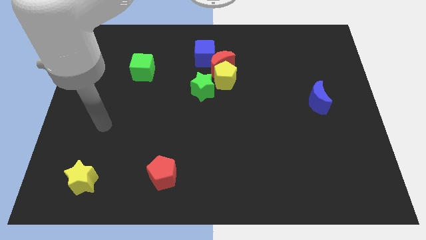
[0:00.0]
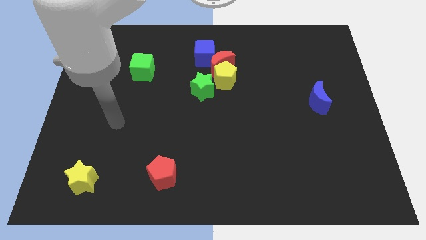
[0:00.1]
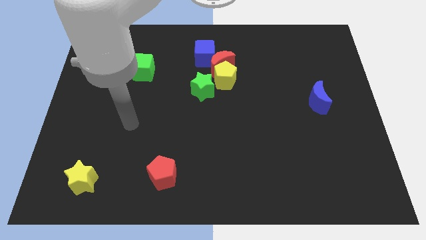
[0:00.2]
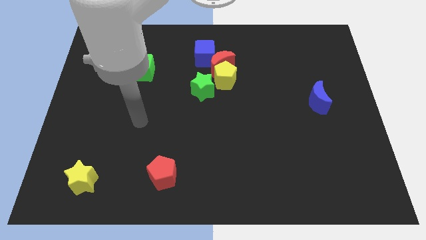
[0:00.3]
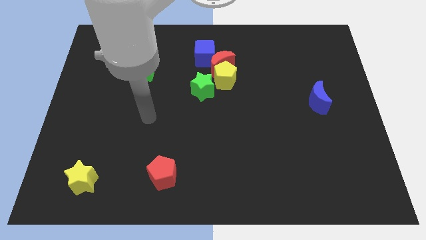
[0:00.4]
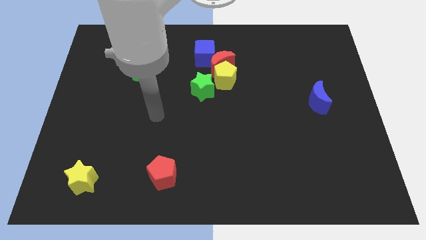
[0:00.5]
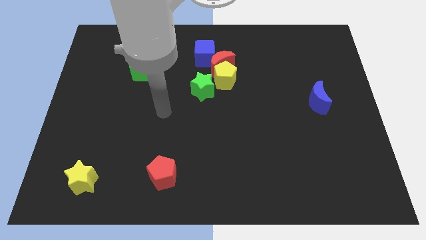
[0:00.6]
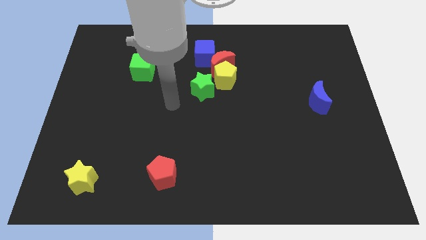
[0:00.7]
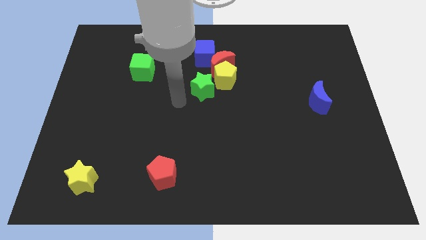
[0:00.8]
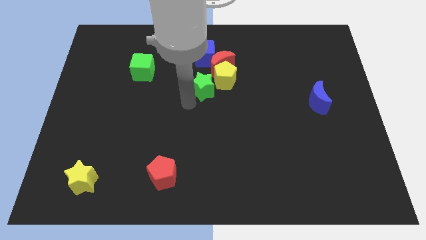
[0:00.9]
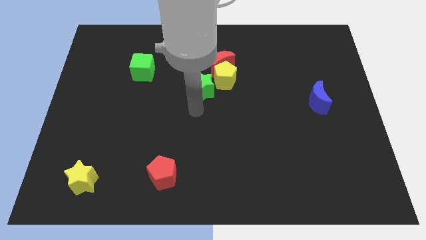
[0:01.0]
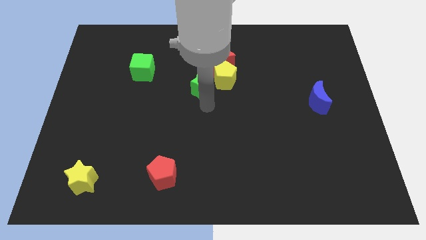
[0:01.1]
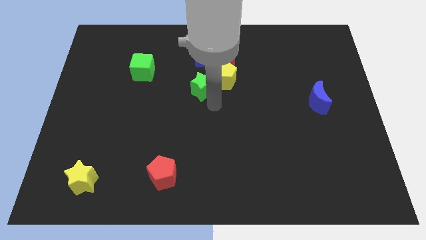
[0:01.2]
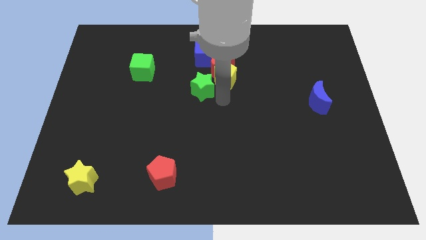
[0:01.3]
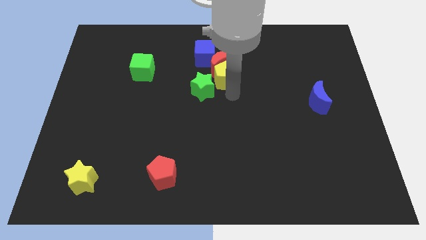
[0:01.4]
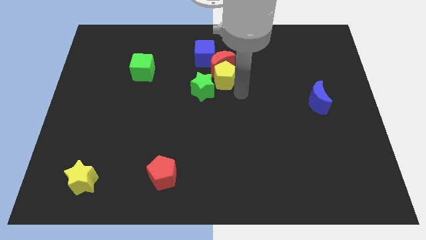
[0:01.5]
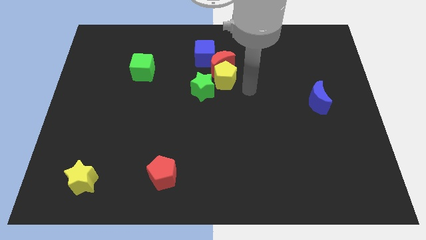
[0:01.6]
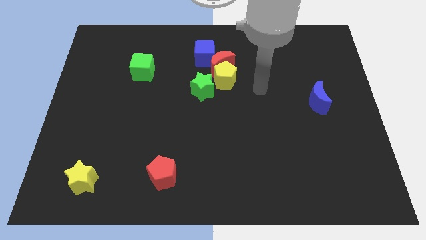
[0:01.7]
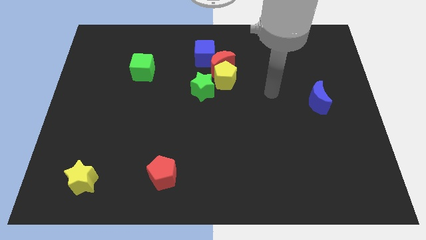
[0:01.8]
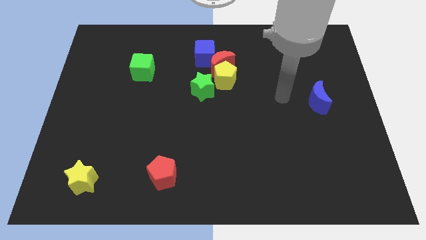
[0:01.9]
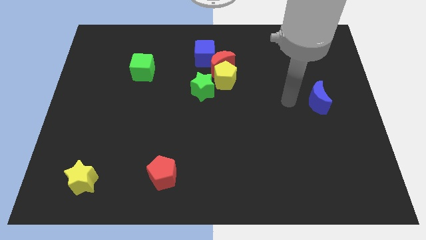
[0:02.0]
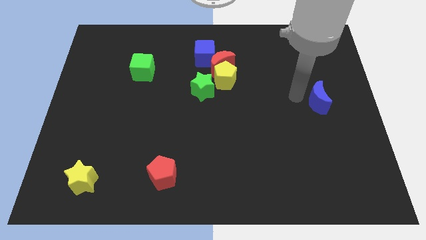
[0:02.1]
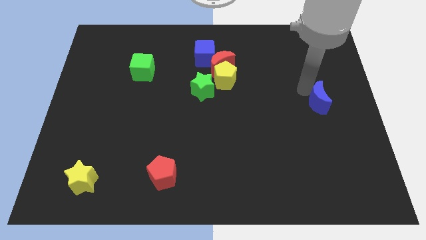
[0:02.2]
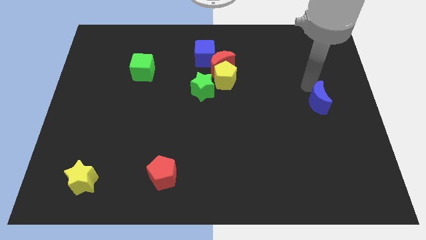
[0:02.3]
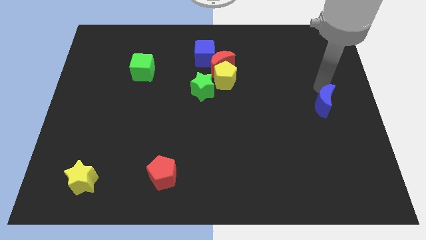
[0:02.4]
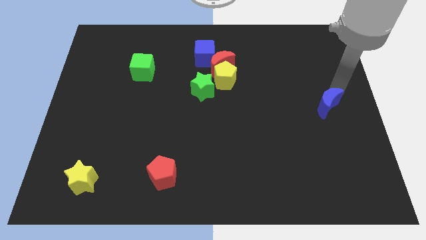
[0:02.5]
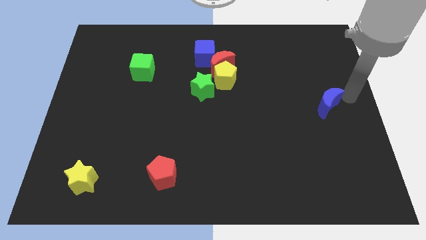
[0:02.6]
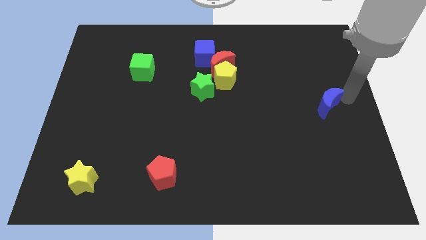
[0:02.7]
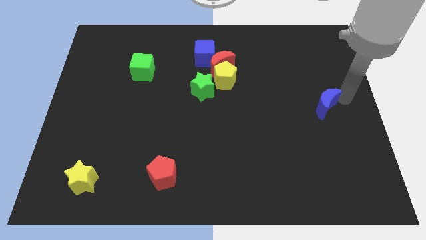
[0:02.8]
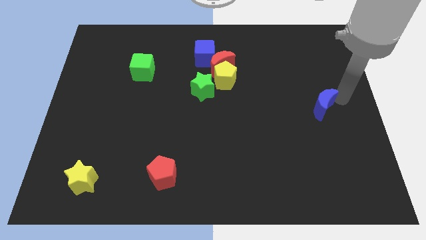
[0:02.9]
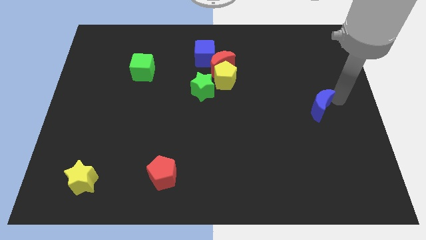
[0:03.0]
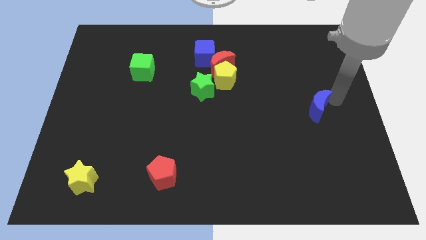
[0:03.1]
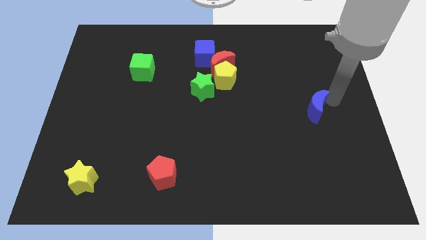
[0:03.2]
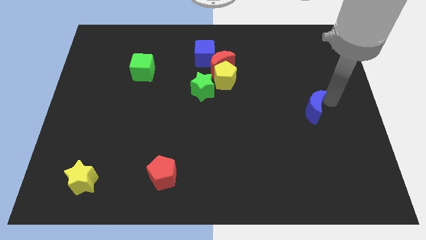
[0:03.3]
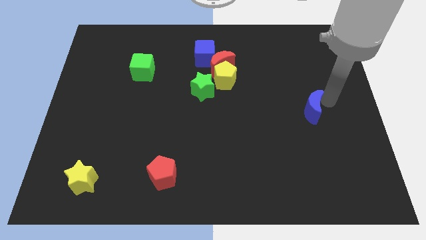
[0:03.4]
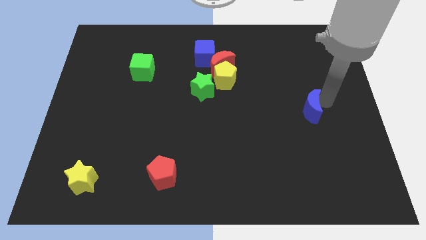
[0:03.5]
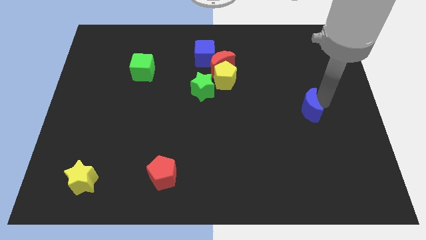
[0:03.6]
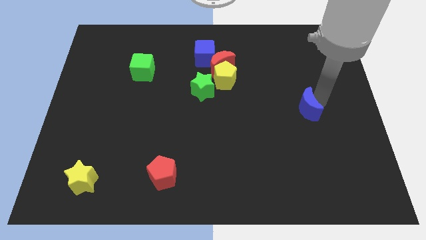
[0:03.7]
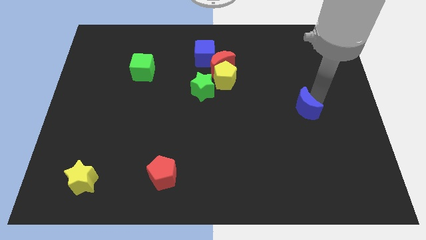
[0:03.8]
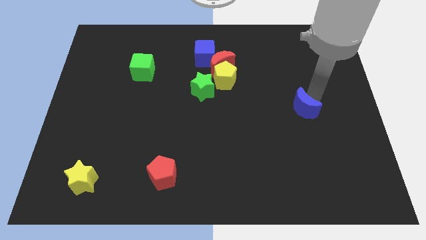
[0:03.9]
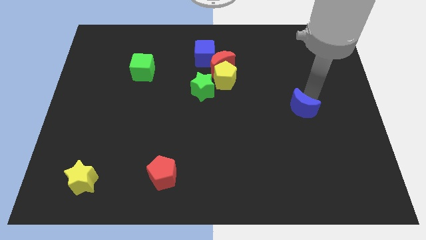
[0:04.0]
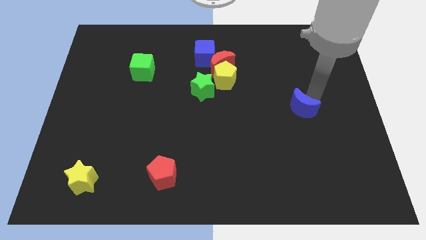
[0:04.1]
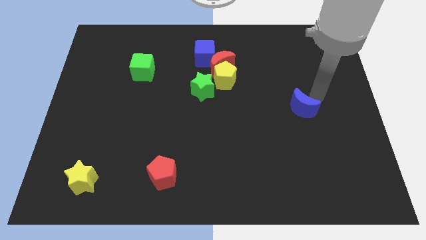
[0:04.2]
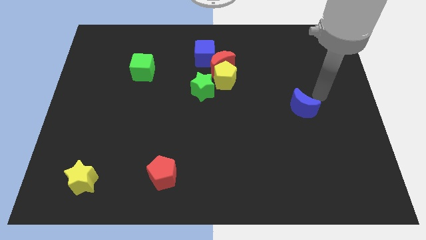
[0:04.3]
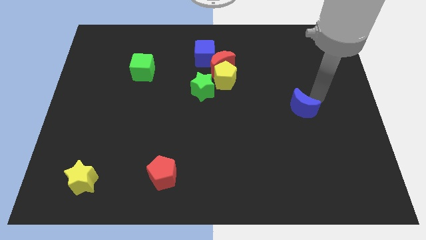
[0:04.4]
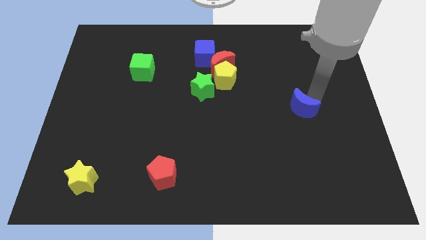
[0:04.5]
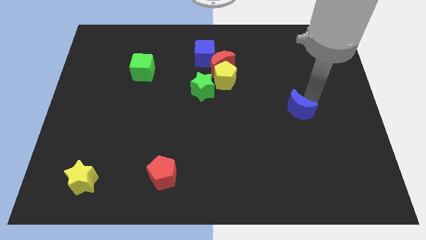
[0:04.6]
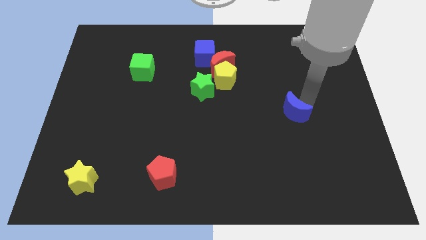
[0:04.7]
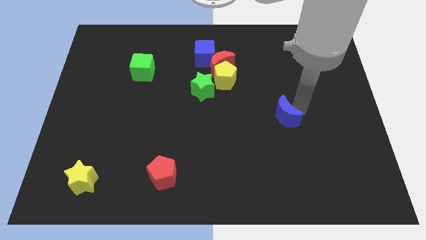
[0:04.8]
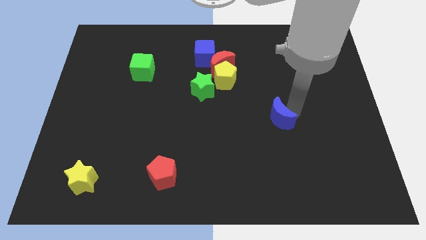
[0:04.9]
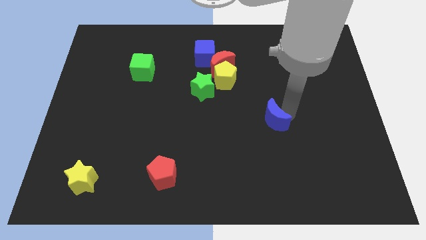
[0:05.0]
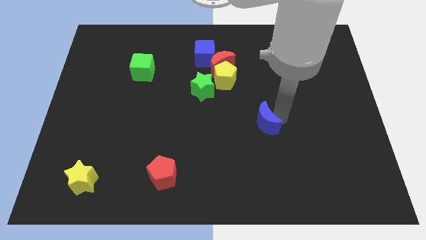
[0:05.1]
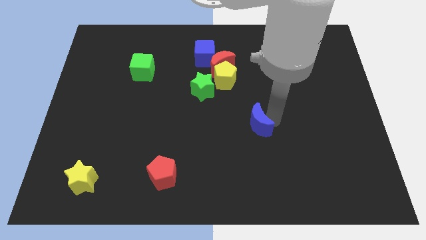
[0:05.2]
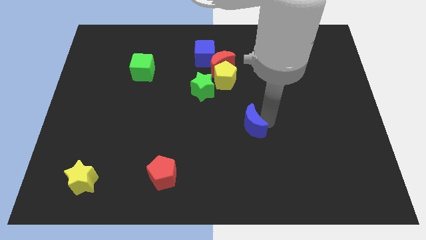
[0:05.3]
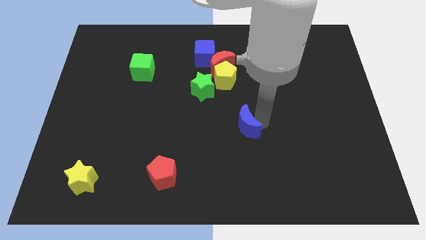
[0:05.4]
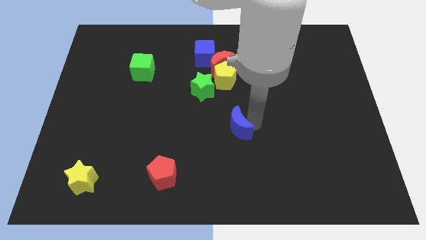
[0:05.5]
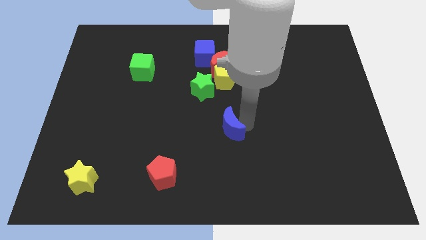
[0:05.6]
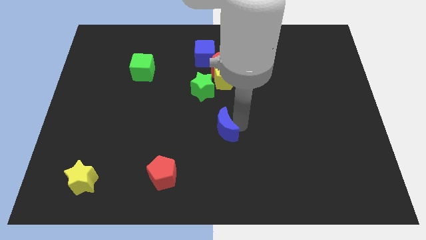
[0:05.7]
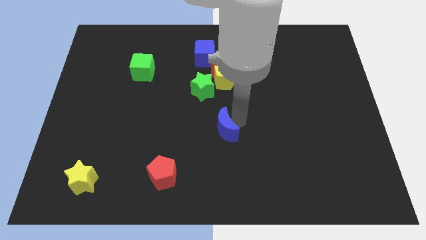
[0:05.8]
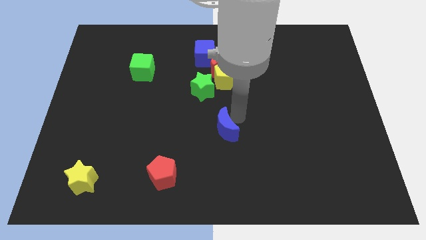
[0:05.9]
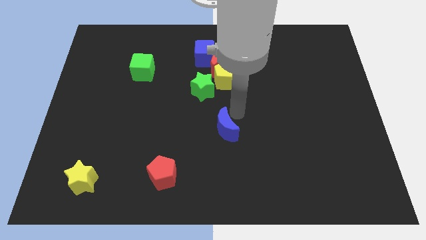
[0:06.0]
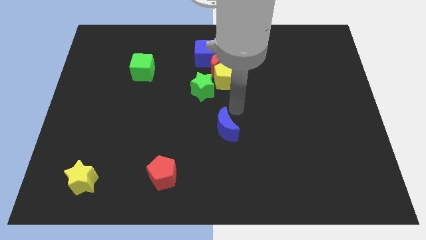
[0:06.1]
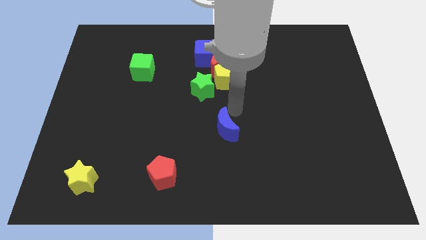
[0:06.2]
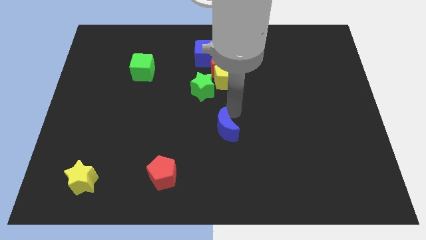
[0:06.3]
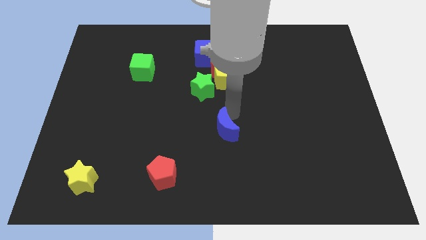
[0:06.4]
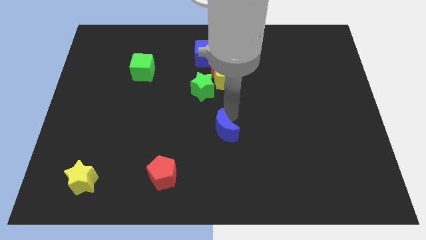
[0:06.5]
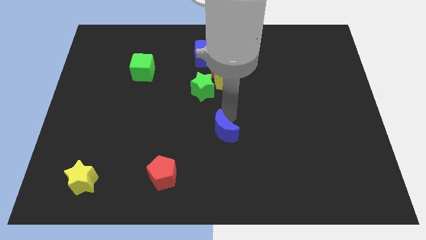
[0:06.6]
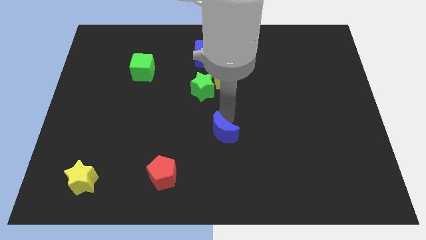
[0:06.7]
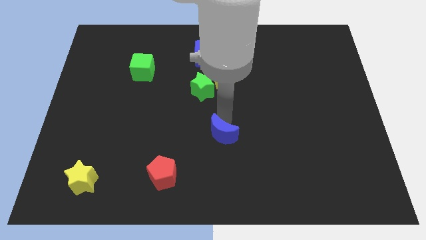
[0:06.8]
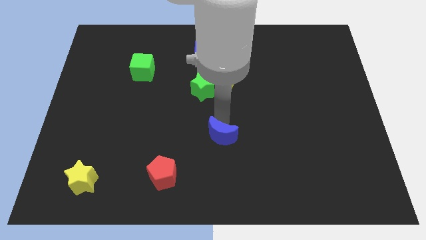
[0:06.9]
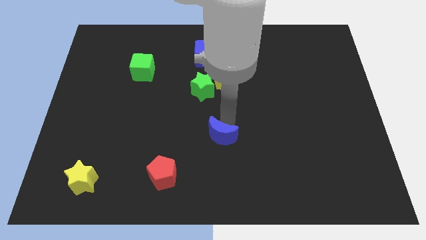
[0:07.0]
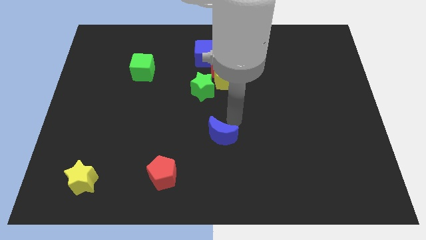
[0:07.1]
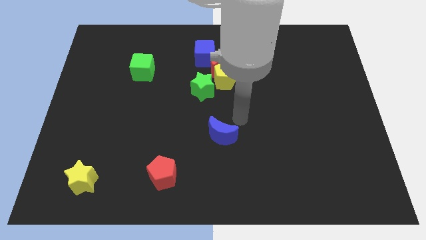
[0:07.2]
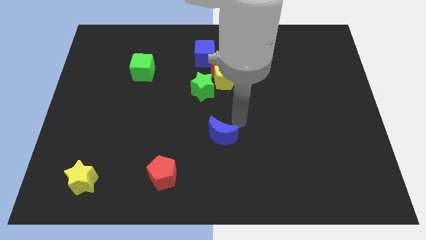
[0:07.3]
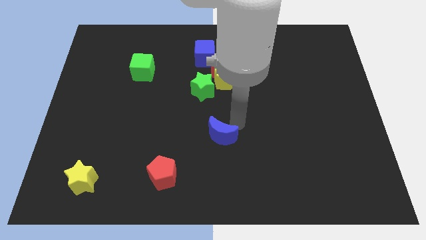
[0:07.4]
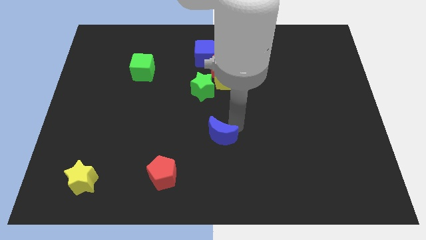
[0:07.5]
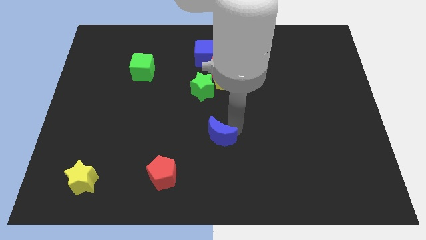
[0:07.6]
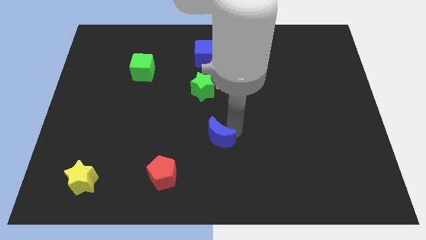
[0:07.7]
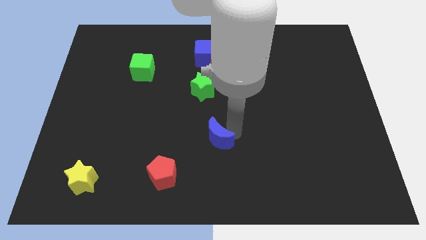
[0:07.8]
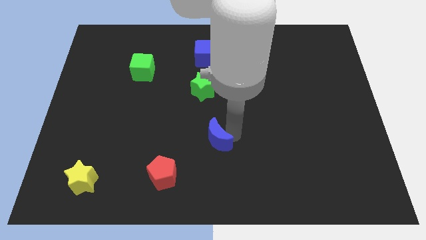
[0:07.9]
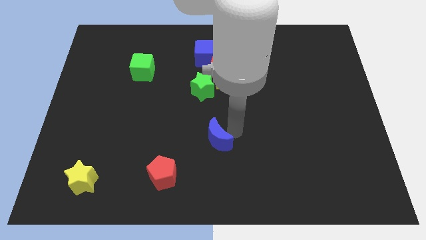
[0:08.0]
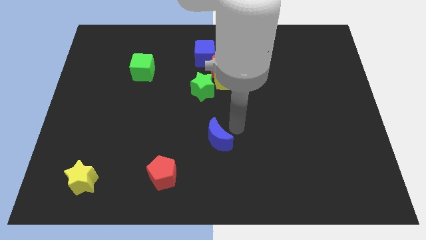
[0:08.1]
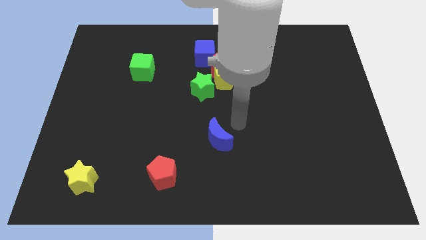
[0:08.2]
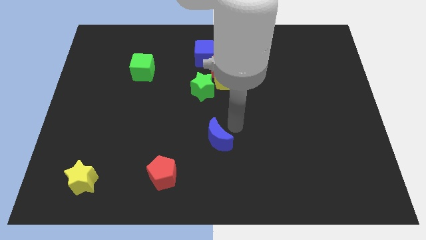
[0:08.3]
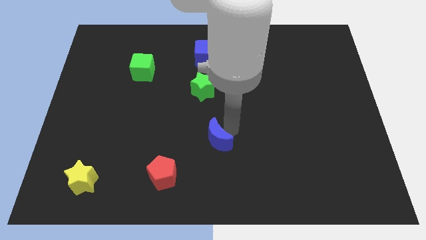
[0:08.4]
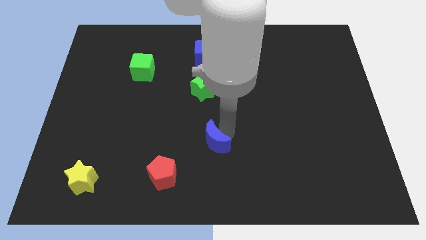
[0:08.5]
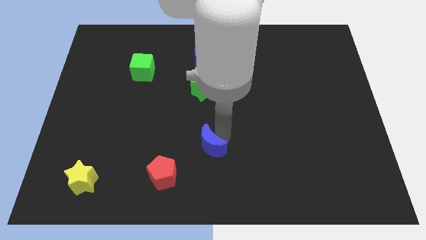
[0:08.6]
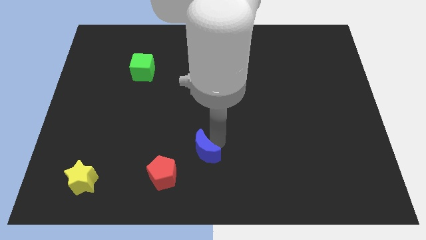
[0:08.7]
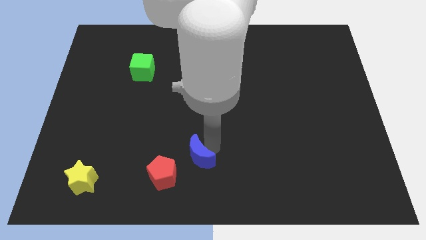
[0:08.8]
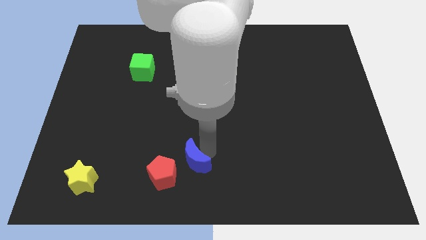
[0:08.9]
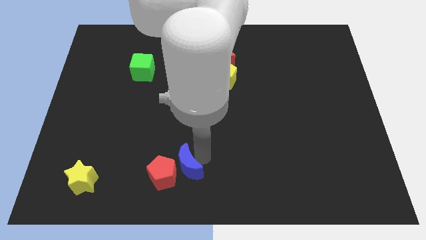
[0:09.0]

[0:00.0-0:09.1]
slide the blue moon to the red pentagon
